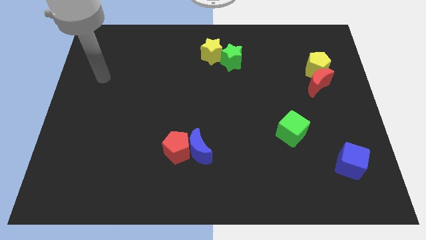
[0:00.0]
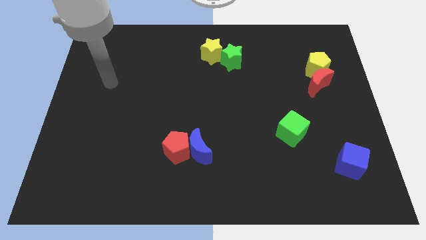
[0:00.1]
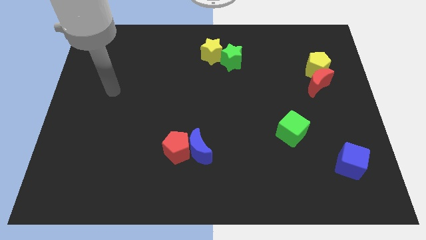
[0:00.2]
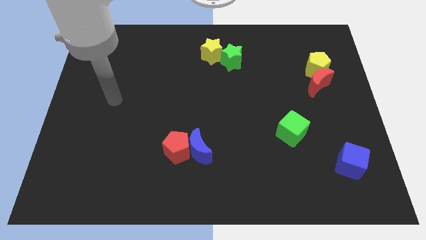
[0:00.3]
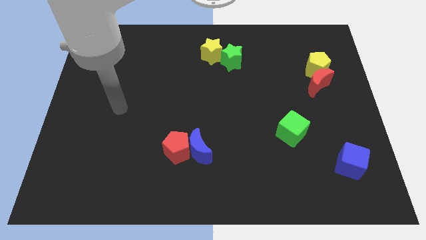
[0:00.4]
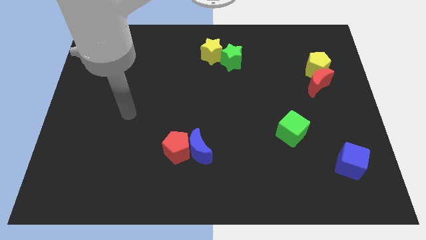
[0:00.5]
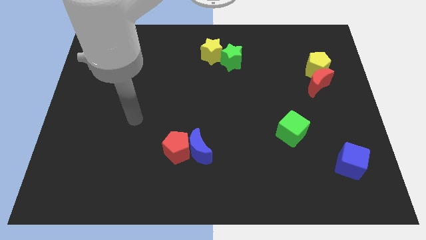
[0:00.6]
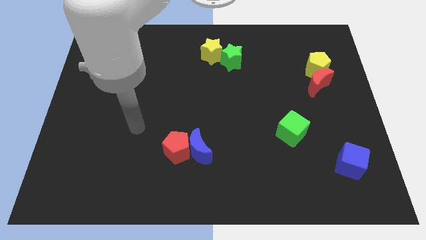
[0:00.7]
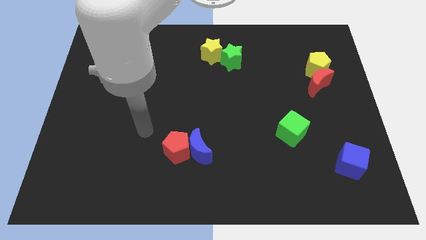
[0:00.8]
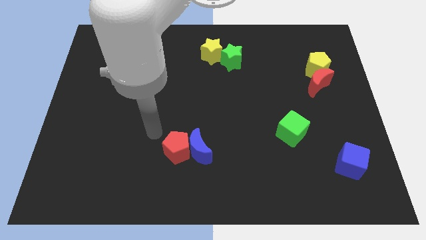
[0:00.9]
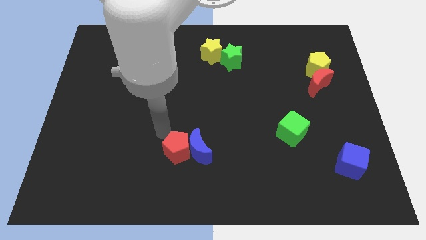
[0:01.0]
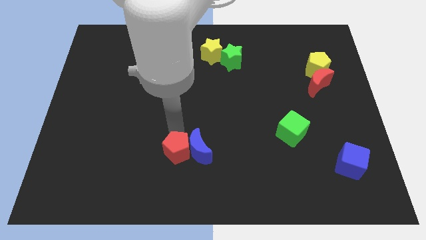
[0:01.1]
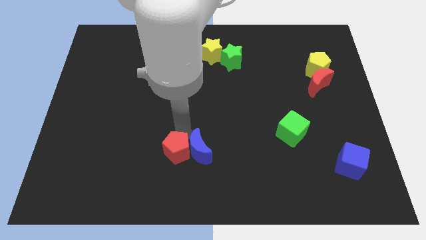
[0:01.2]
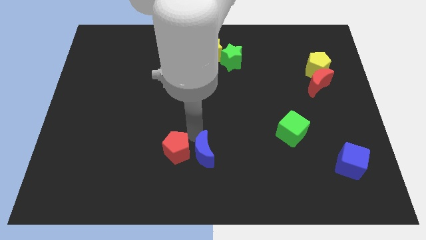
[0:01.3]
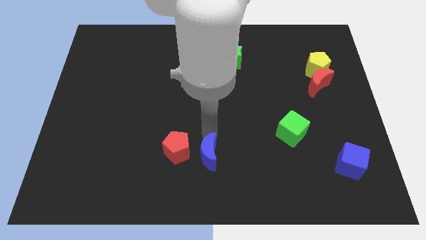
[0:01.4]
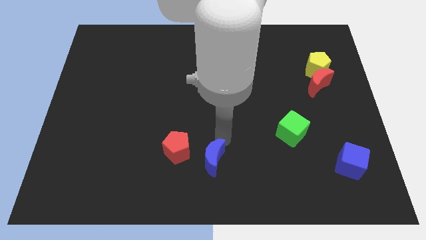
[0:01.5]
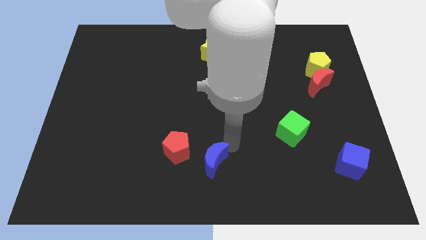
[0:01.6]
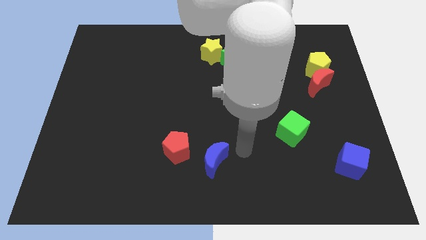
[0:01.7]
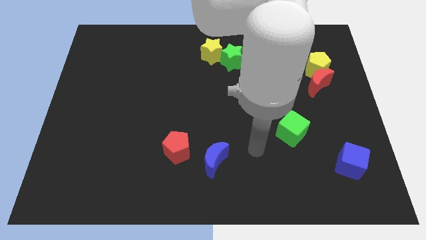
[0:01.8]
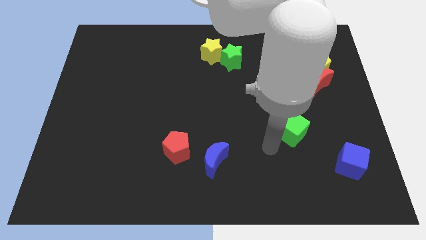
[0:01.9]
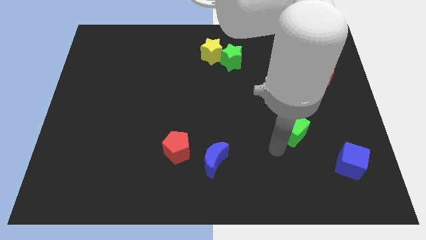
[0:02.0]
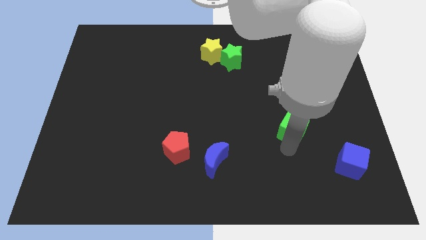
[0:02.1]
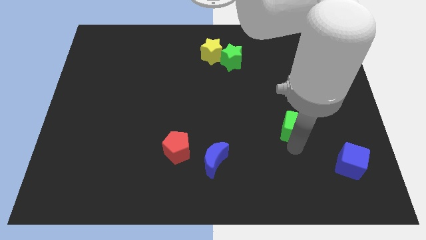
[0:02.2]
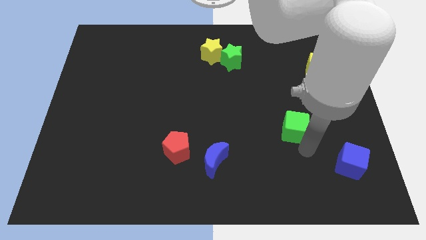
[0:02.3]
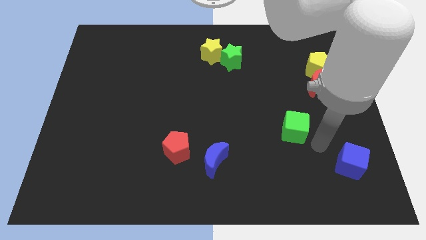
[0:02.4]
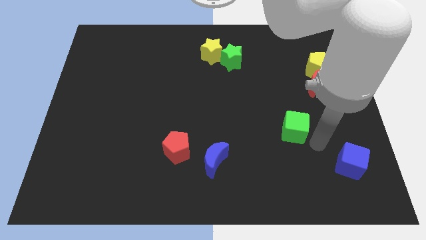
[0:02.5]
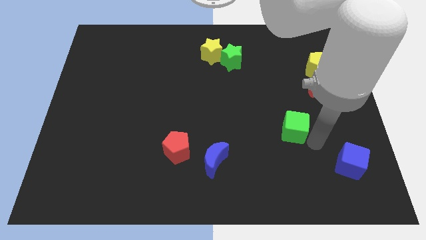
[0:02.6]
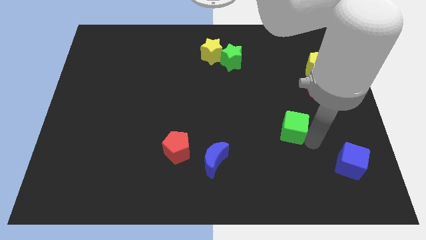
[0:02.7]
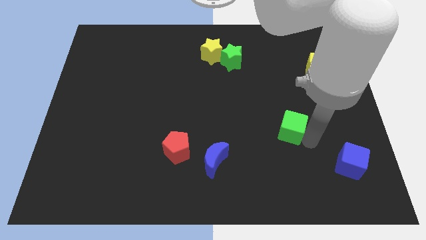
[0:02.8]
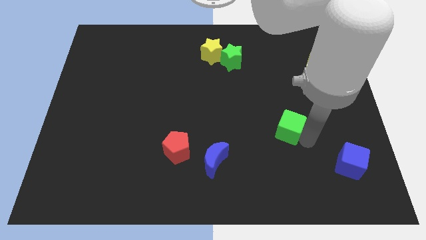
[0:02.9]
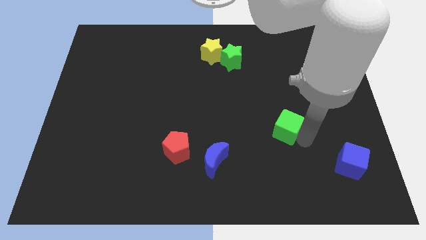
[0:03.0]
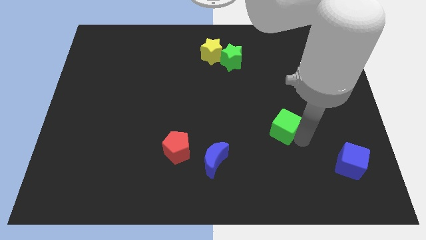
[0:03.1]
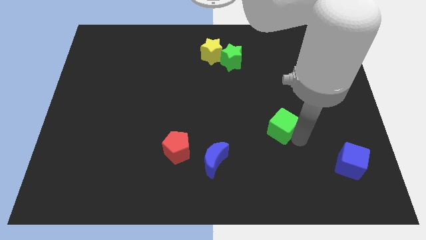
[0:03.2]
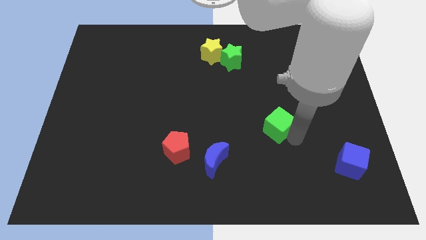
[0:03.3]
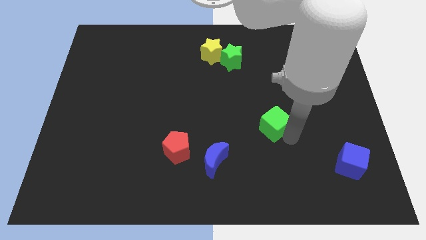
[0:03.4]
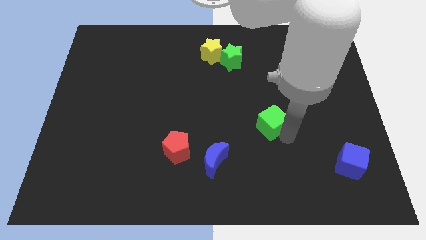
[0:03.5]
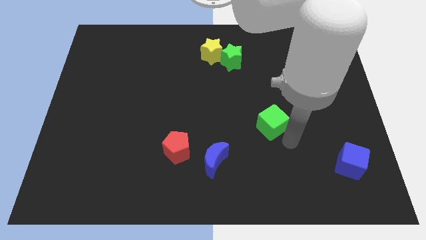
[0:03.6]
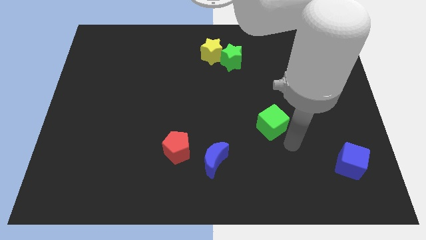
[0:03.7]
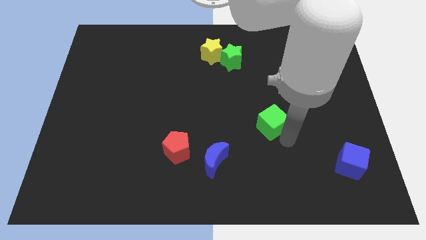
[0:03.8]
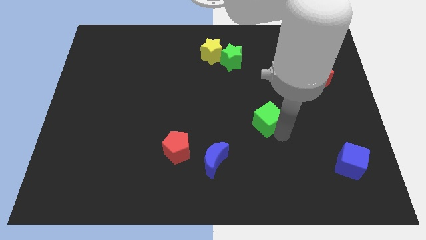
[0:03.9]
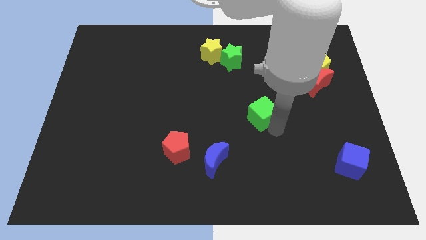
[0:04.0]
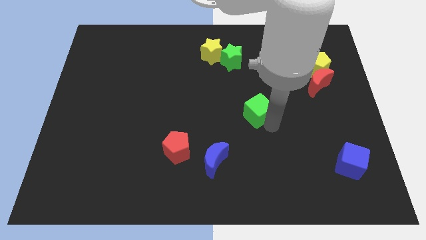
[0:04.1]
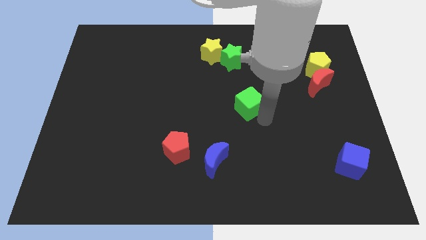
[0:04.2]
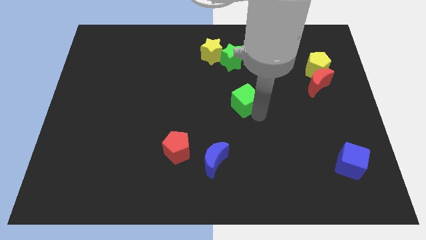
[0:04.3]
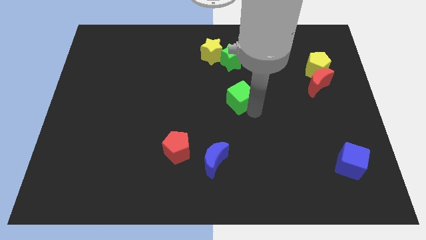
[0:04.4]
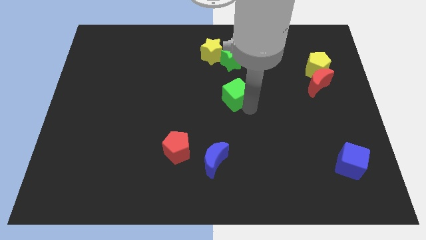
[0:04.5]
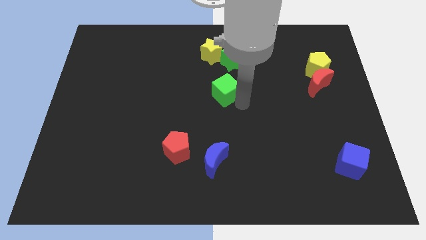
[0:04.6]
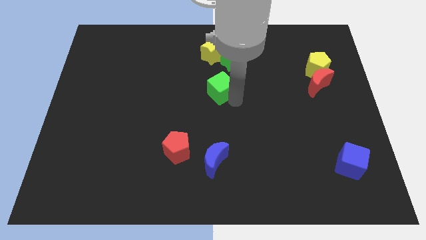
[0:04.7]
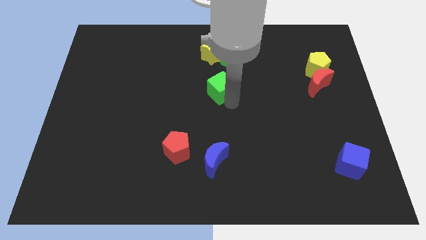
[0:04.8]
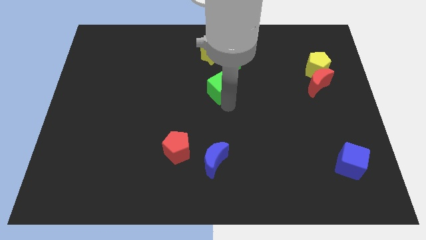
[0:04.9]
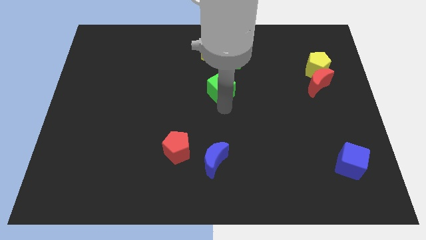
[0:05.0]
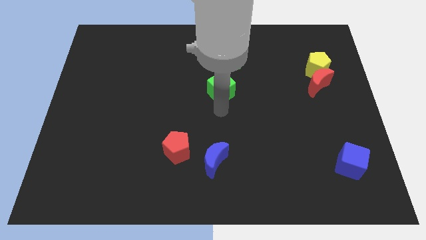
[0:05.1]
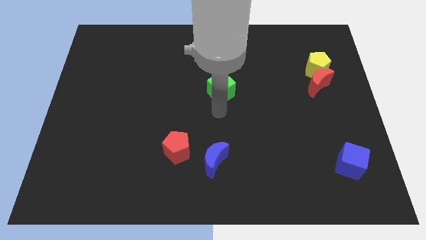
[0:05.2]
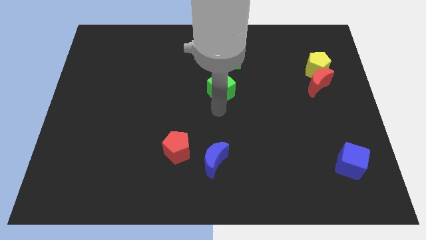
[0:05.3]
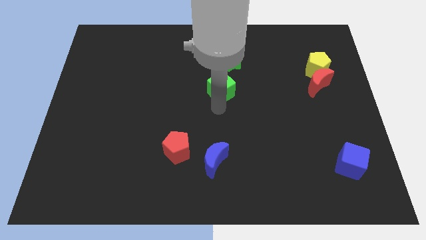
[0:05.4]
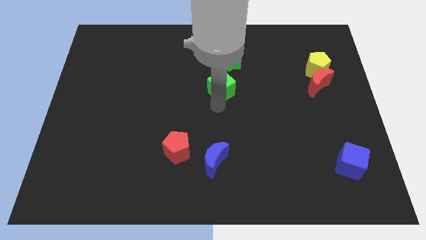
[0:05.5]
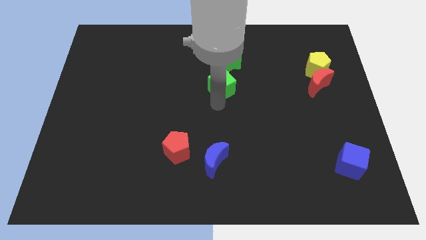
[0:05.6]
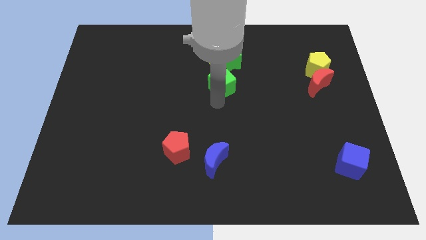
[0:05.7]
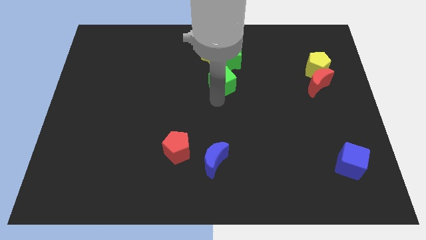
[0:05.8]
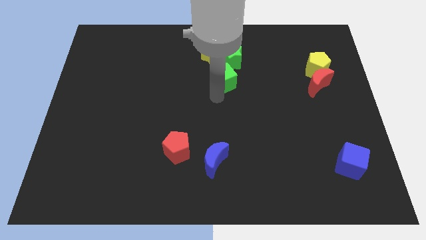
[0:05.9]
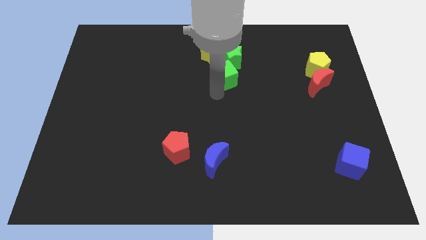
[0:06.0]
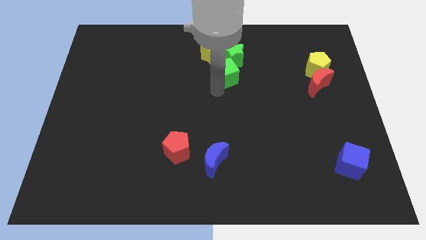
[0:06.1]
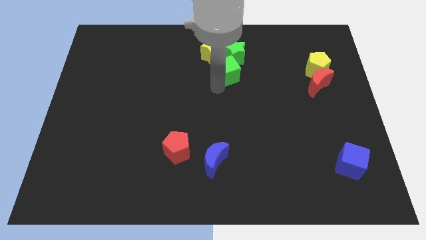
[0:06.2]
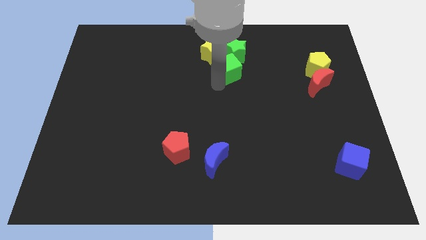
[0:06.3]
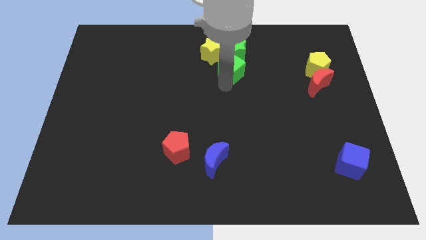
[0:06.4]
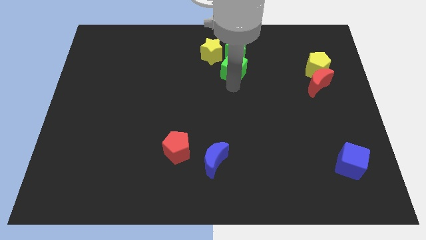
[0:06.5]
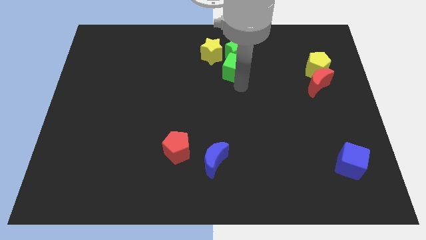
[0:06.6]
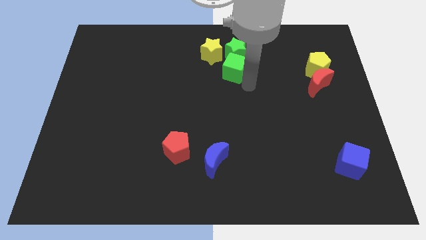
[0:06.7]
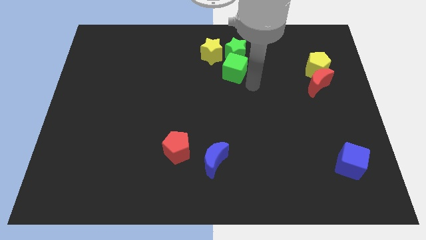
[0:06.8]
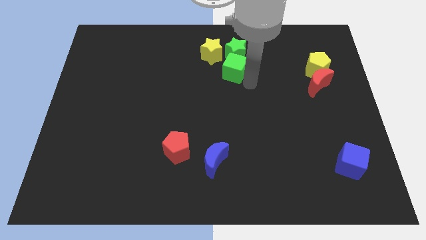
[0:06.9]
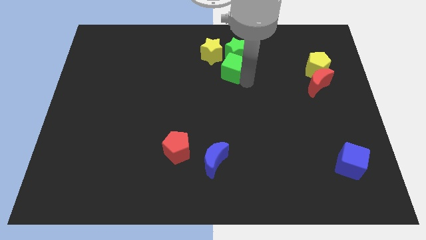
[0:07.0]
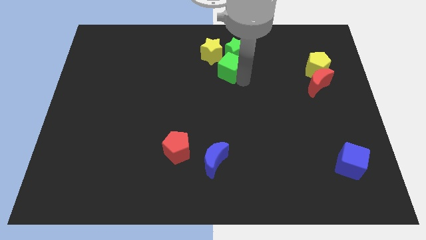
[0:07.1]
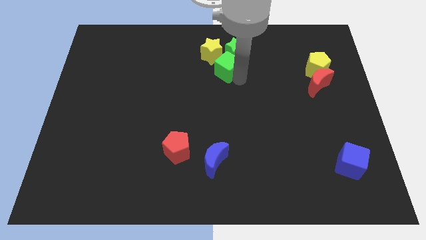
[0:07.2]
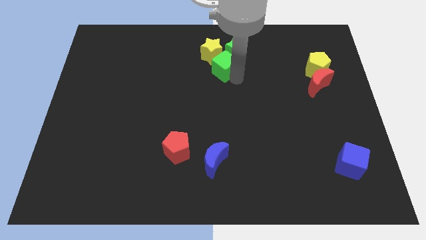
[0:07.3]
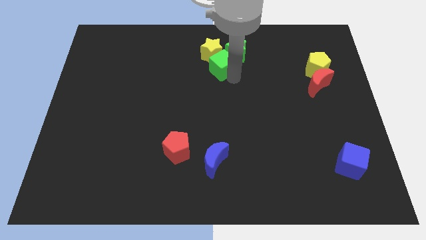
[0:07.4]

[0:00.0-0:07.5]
push the green cube towards the yellow star

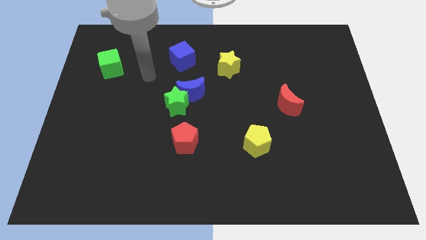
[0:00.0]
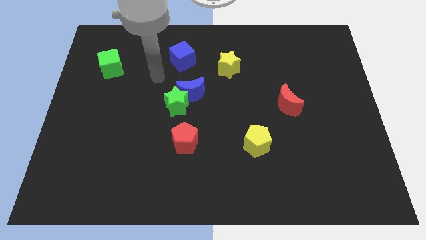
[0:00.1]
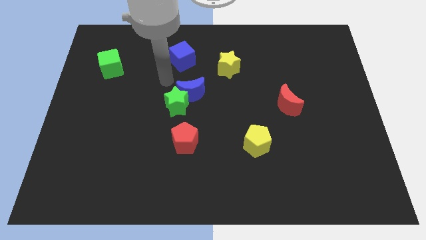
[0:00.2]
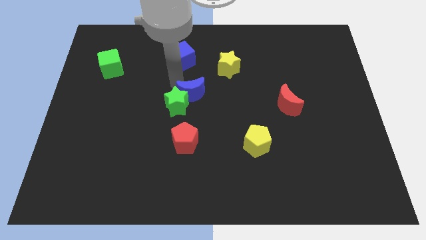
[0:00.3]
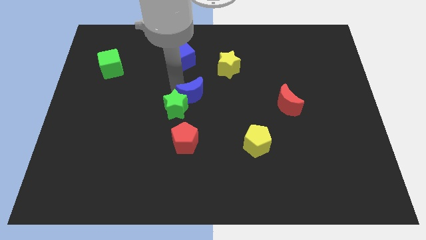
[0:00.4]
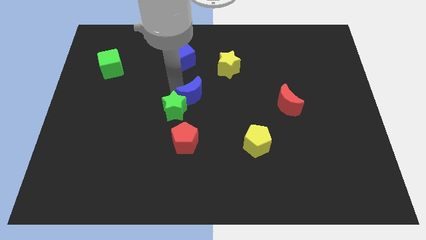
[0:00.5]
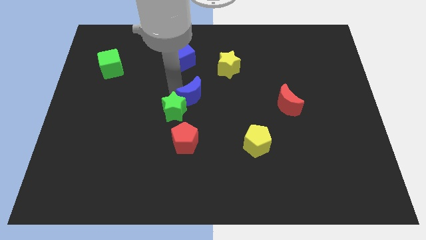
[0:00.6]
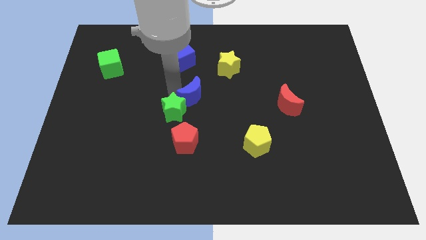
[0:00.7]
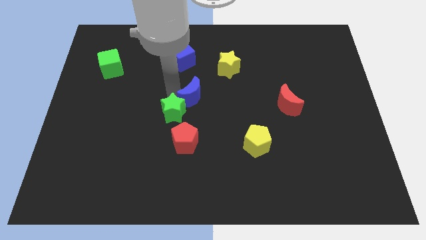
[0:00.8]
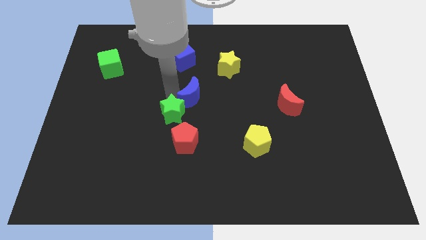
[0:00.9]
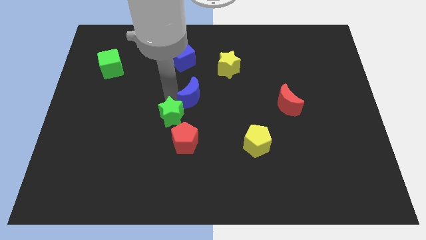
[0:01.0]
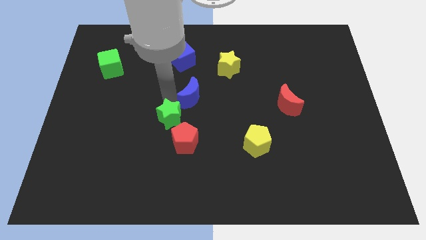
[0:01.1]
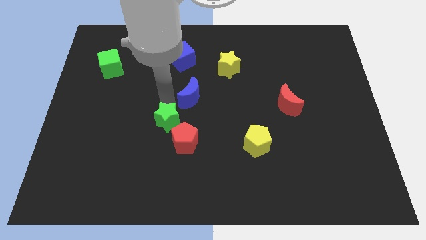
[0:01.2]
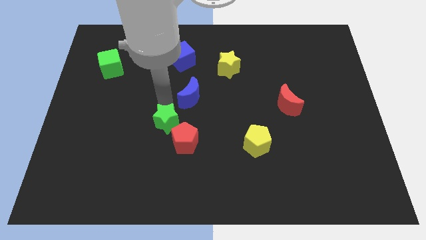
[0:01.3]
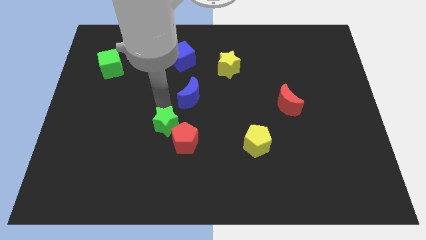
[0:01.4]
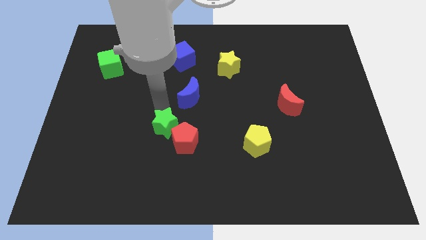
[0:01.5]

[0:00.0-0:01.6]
push the green star close to the red pentagon
